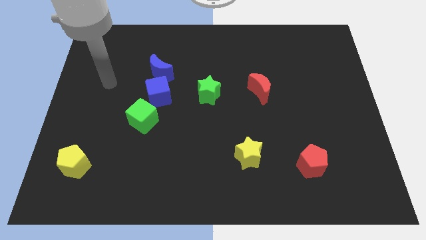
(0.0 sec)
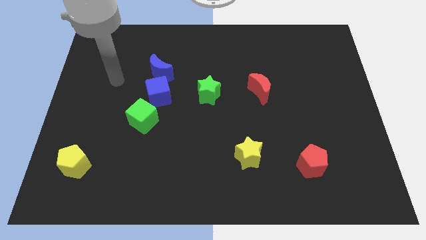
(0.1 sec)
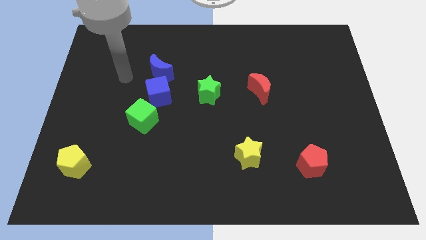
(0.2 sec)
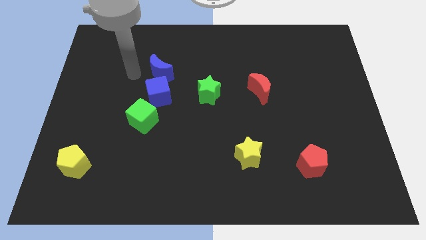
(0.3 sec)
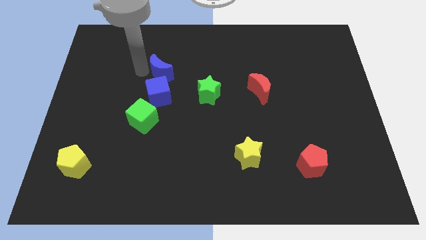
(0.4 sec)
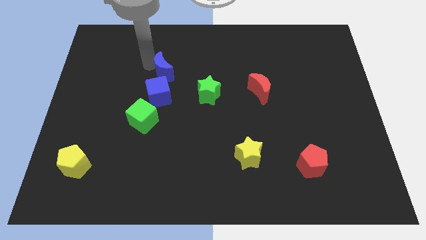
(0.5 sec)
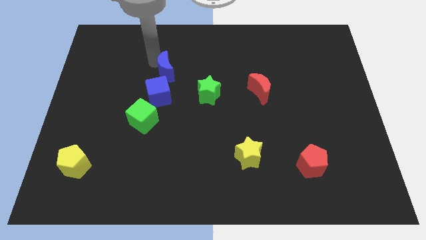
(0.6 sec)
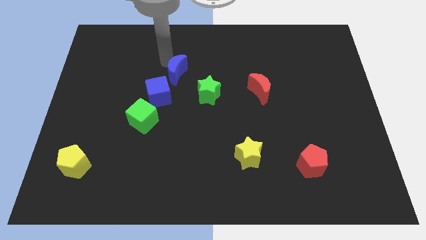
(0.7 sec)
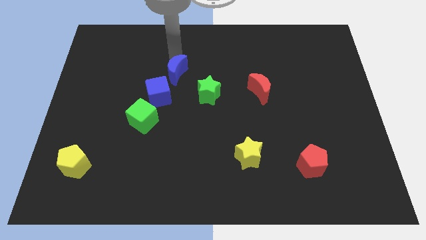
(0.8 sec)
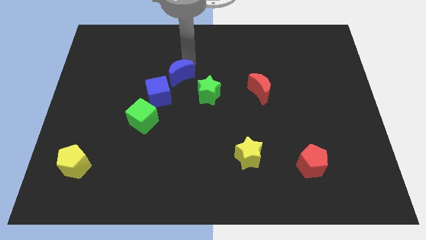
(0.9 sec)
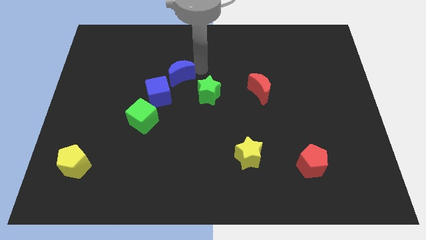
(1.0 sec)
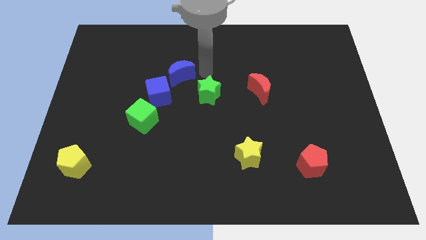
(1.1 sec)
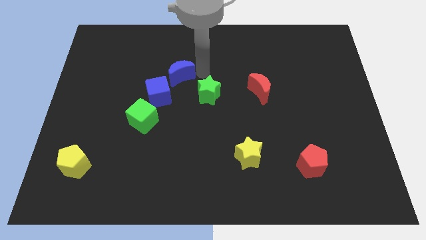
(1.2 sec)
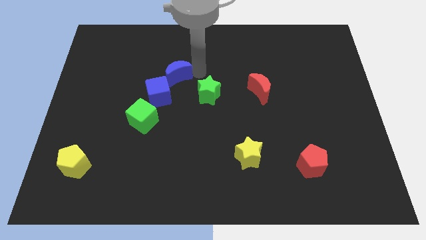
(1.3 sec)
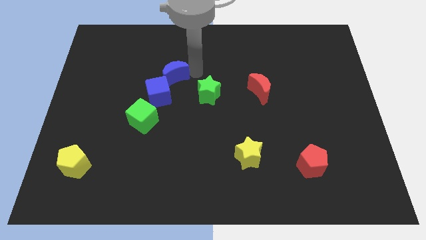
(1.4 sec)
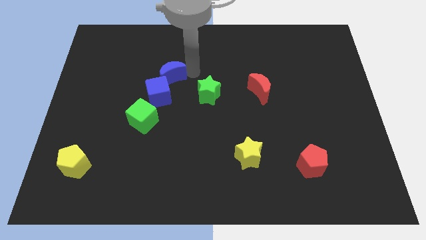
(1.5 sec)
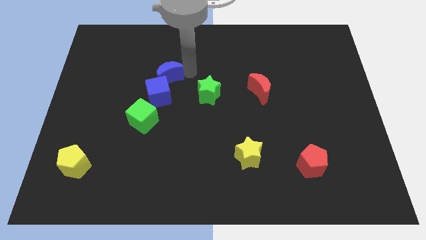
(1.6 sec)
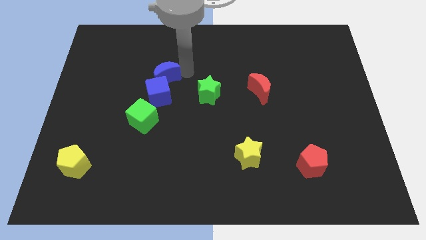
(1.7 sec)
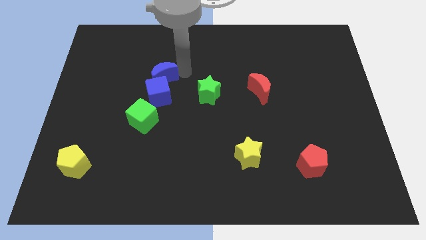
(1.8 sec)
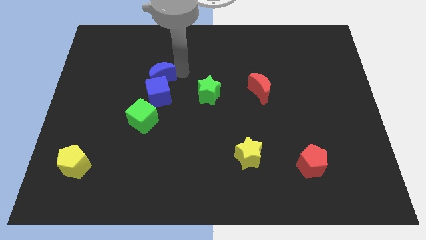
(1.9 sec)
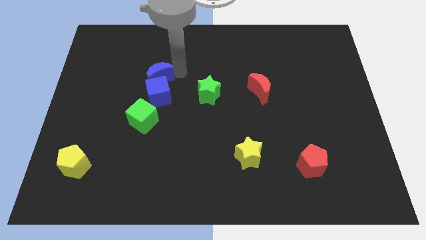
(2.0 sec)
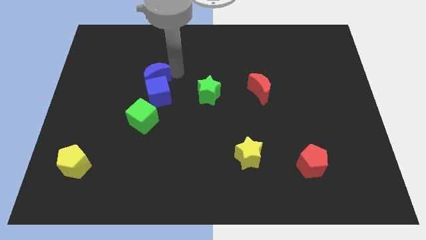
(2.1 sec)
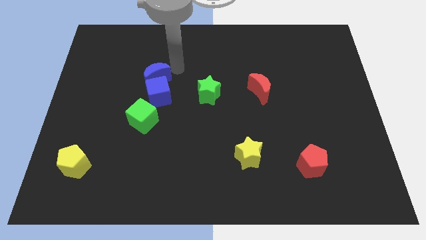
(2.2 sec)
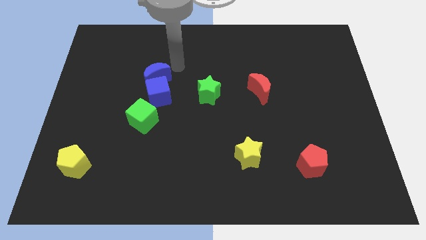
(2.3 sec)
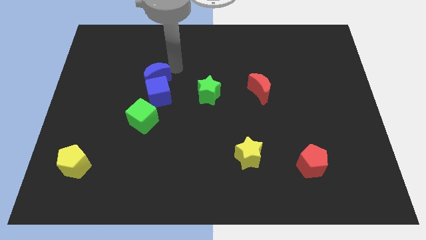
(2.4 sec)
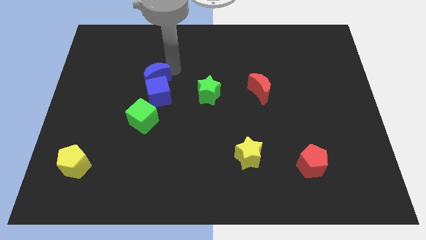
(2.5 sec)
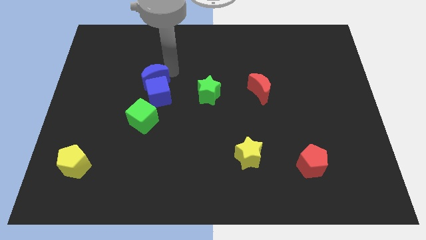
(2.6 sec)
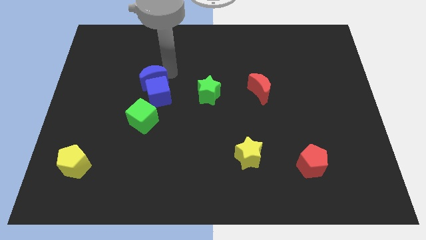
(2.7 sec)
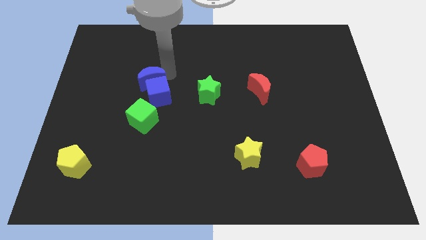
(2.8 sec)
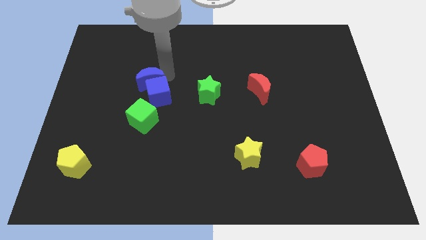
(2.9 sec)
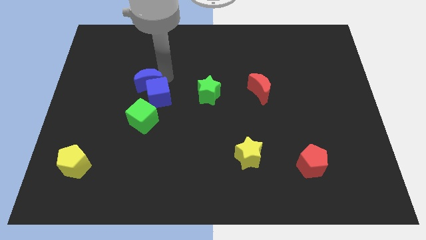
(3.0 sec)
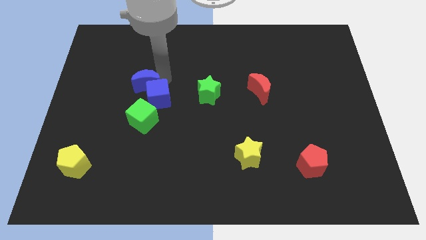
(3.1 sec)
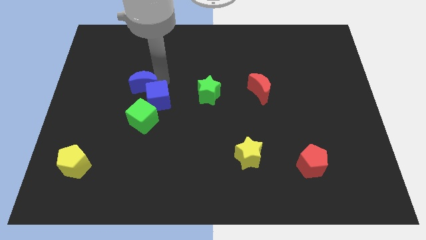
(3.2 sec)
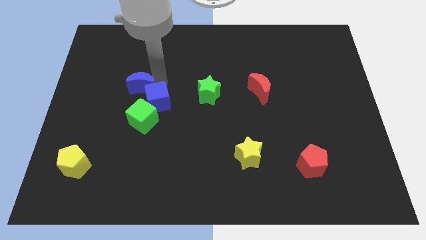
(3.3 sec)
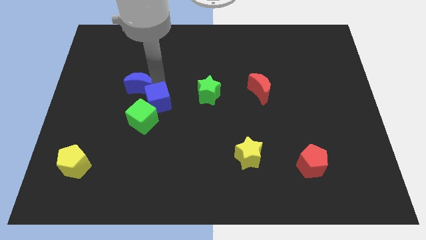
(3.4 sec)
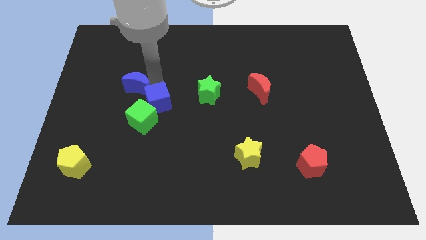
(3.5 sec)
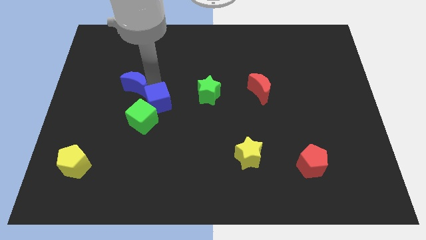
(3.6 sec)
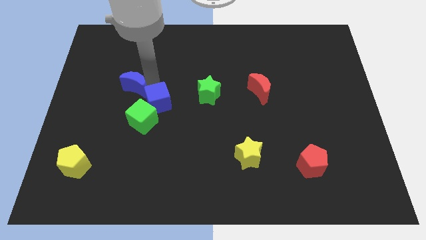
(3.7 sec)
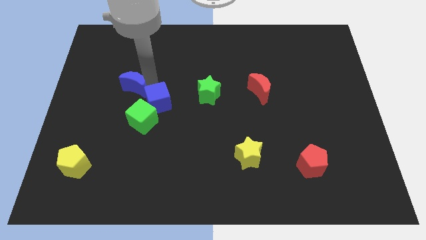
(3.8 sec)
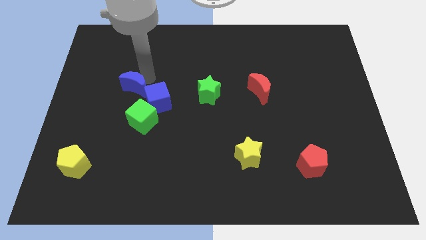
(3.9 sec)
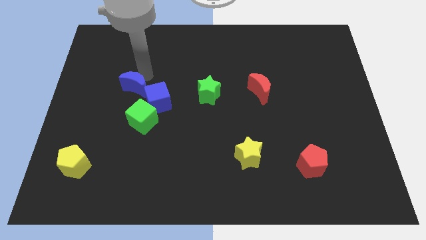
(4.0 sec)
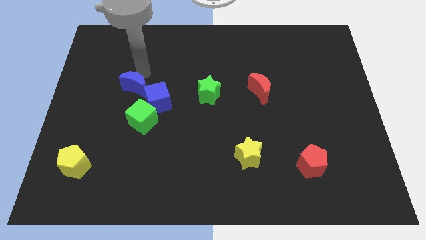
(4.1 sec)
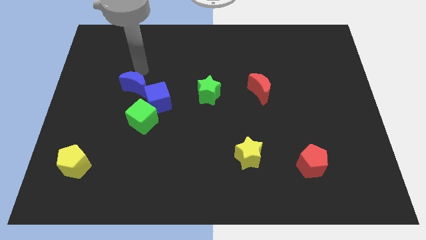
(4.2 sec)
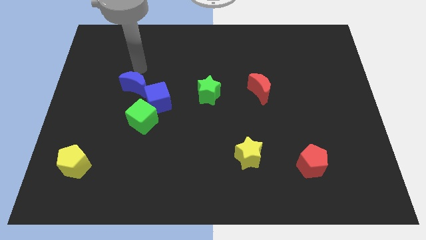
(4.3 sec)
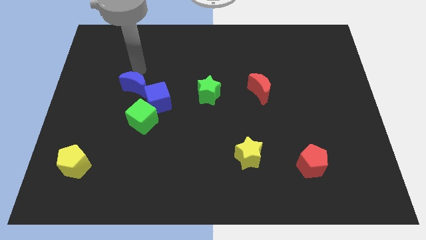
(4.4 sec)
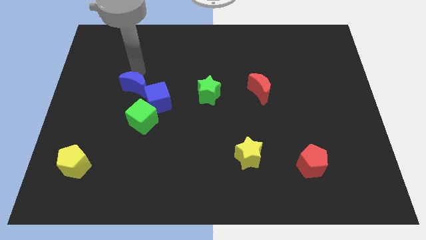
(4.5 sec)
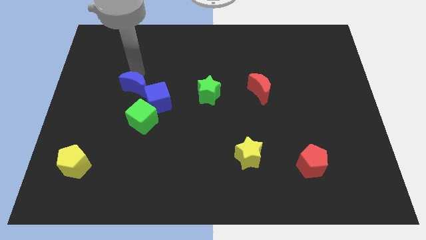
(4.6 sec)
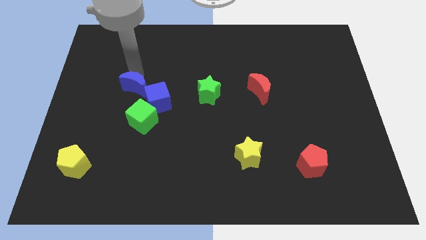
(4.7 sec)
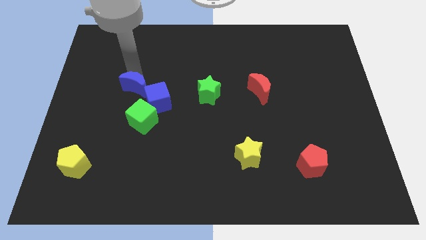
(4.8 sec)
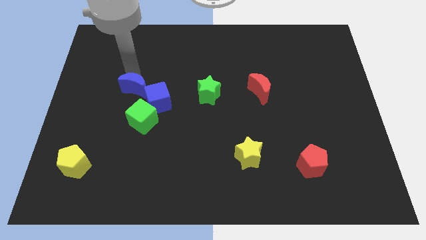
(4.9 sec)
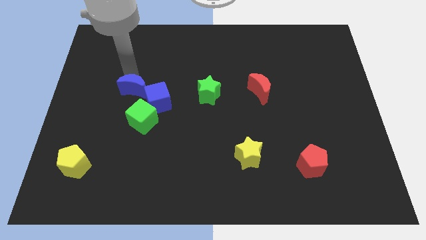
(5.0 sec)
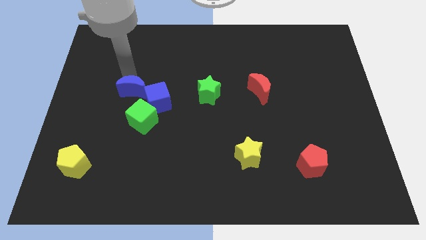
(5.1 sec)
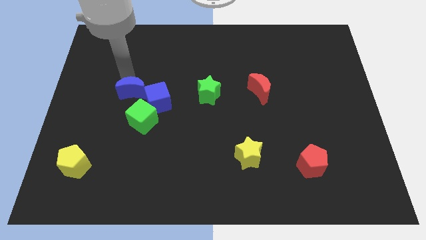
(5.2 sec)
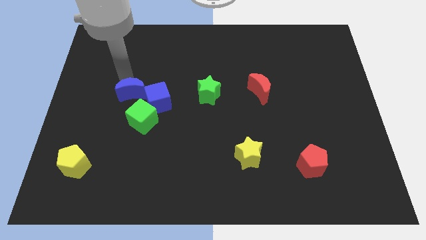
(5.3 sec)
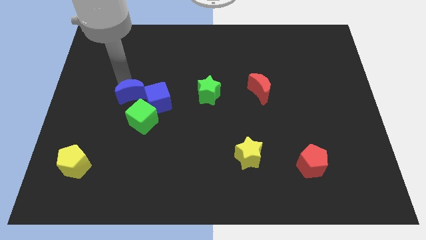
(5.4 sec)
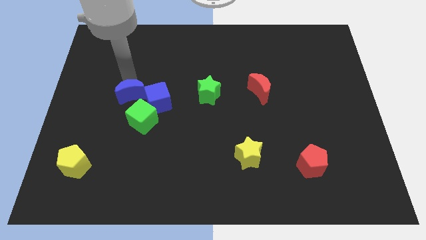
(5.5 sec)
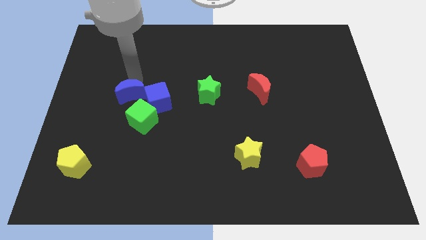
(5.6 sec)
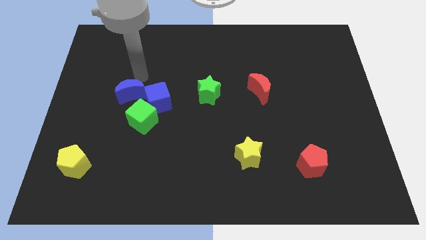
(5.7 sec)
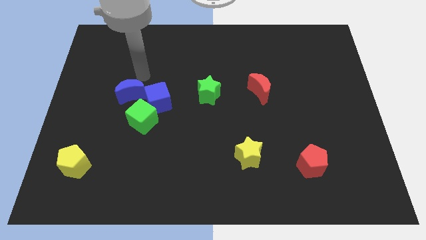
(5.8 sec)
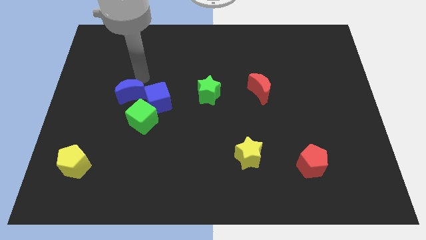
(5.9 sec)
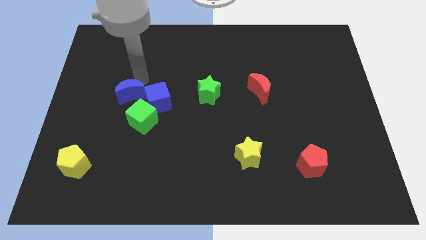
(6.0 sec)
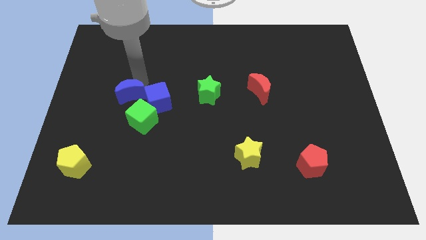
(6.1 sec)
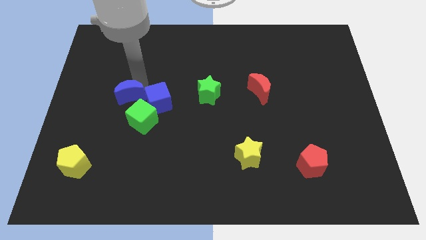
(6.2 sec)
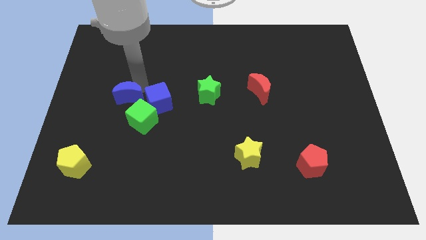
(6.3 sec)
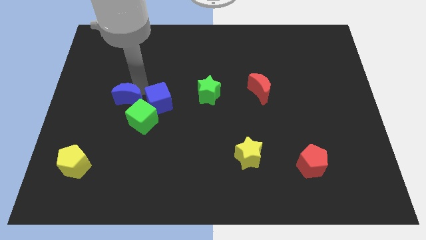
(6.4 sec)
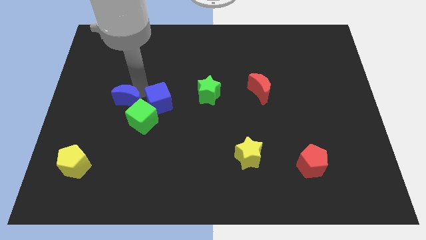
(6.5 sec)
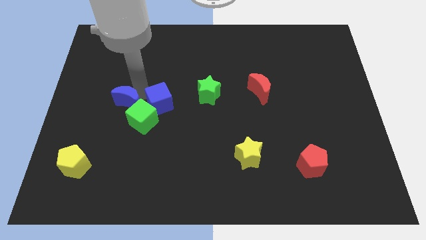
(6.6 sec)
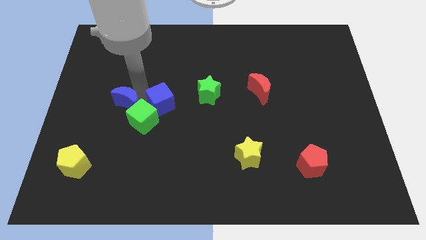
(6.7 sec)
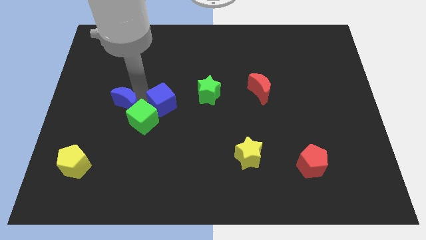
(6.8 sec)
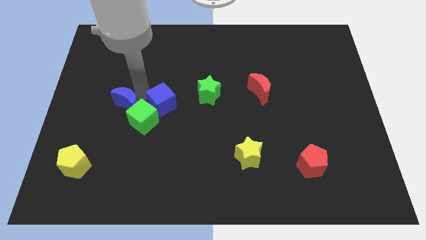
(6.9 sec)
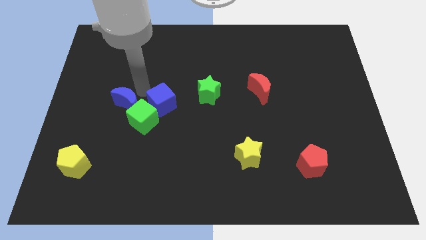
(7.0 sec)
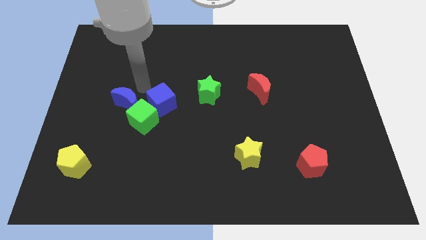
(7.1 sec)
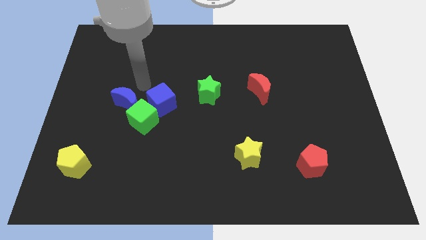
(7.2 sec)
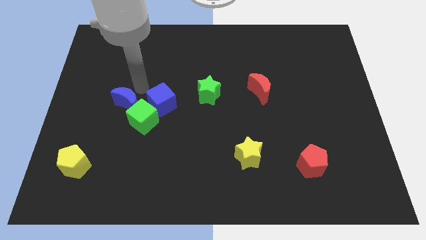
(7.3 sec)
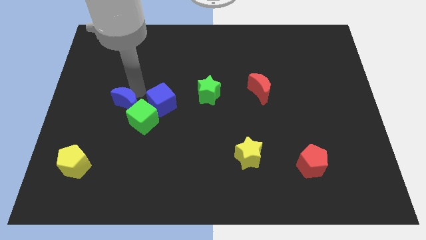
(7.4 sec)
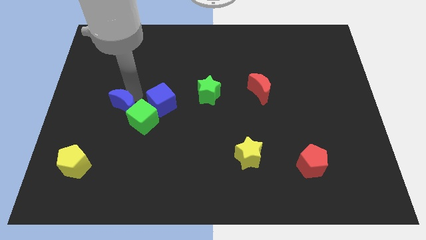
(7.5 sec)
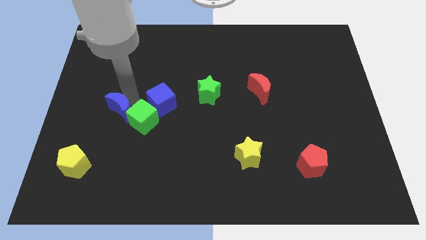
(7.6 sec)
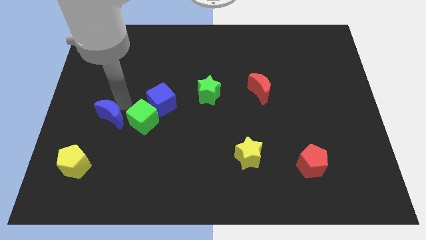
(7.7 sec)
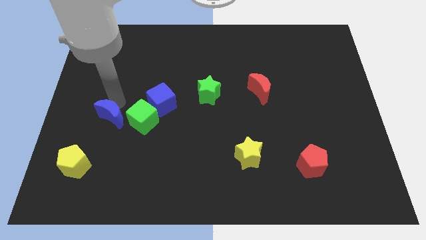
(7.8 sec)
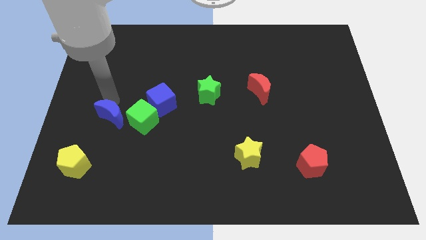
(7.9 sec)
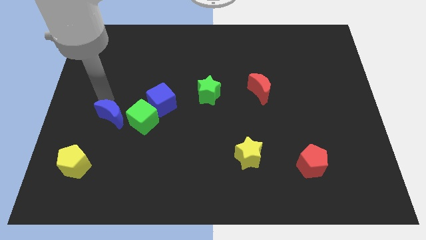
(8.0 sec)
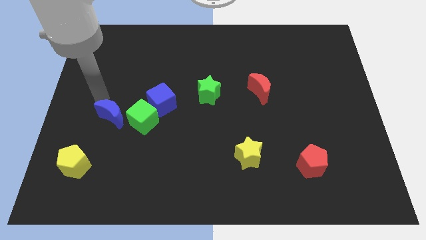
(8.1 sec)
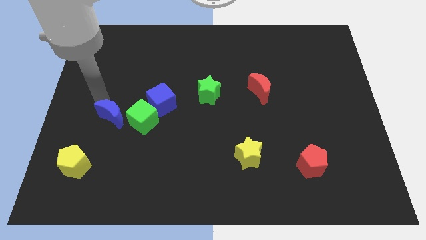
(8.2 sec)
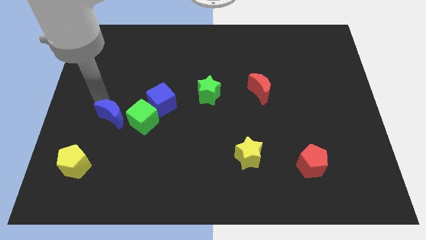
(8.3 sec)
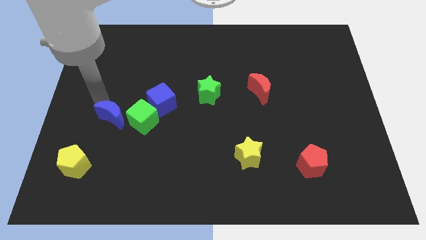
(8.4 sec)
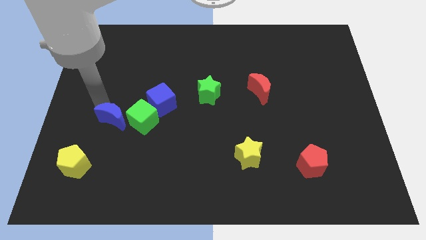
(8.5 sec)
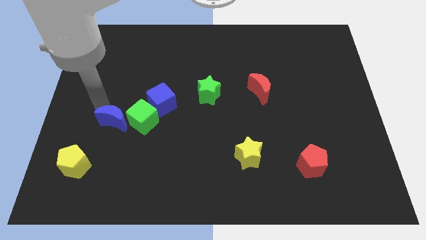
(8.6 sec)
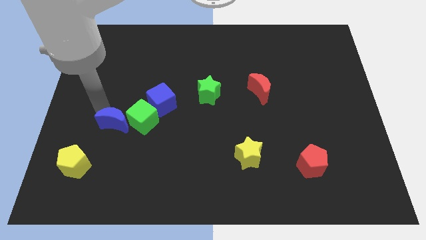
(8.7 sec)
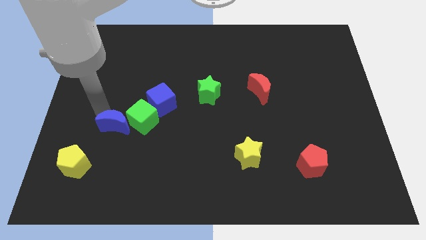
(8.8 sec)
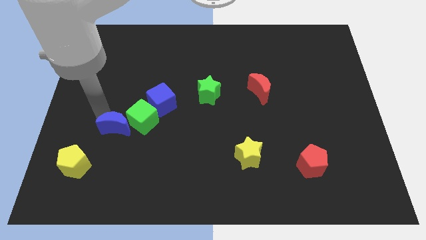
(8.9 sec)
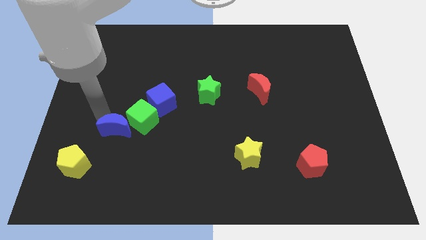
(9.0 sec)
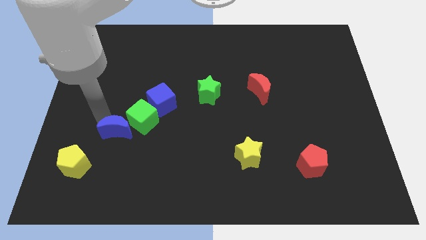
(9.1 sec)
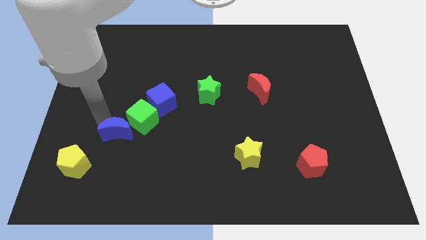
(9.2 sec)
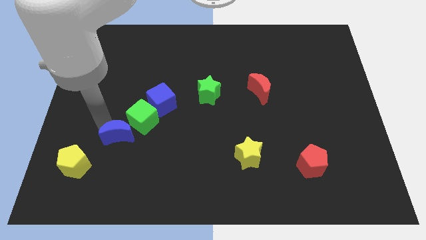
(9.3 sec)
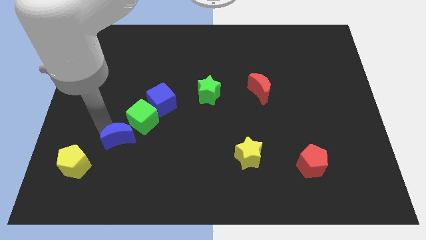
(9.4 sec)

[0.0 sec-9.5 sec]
put the blue moon to the bottom of the green cube
